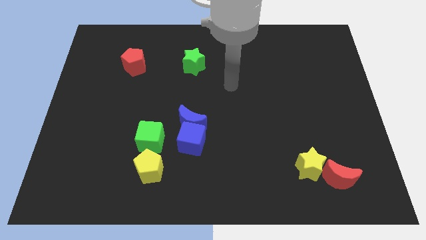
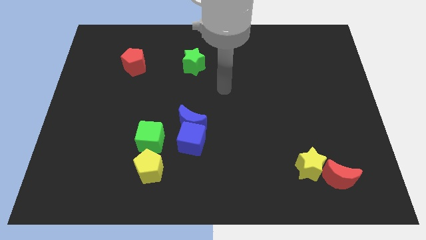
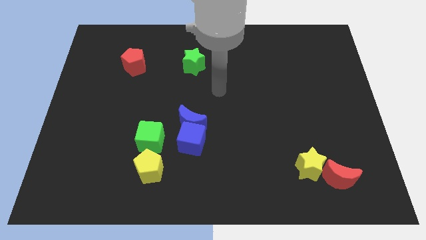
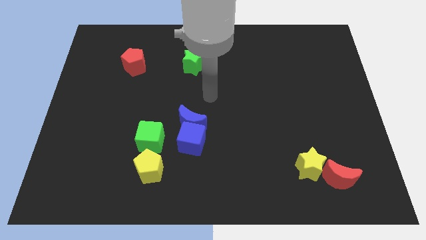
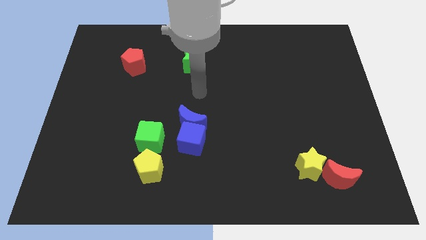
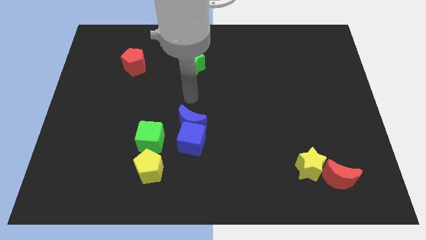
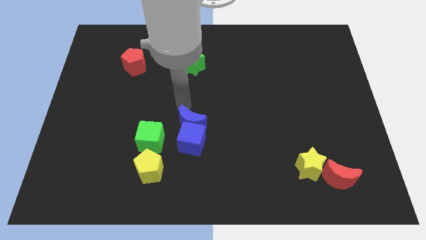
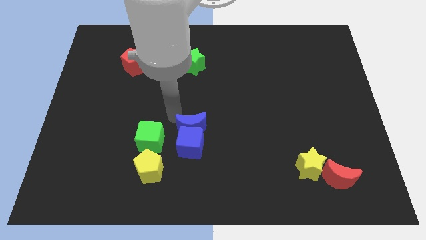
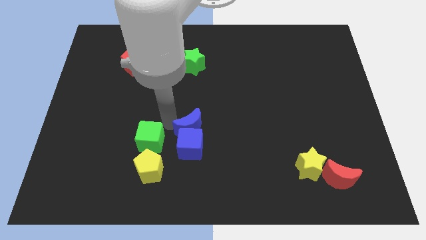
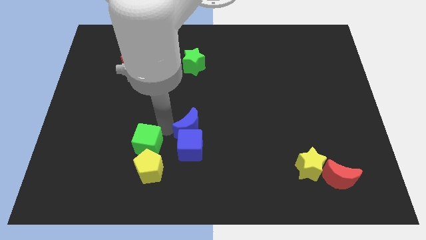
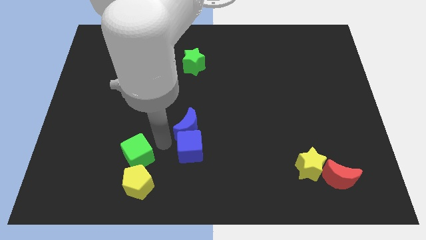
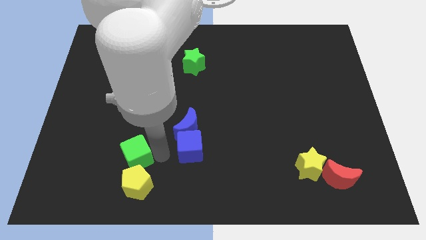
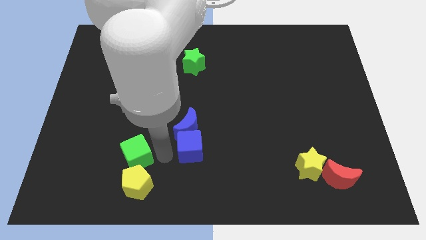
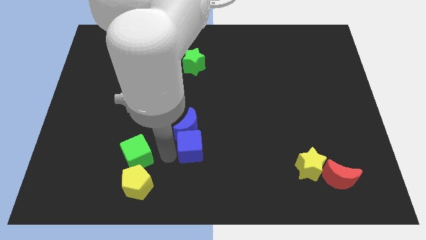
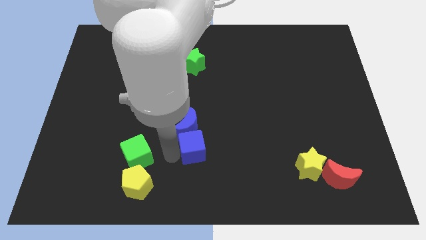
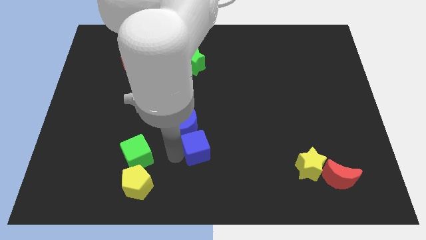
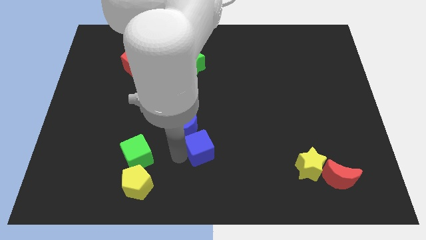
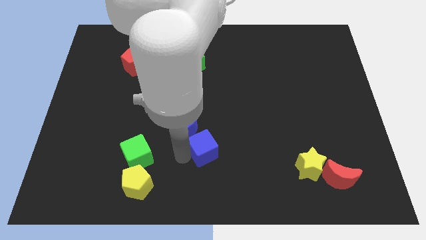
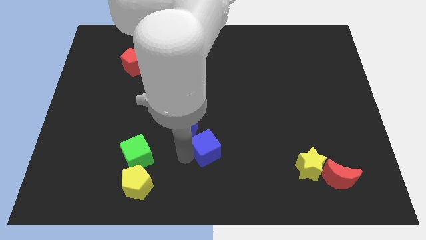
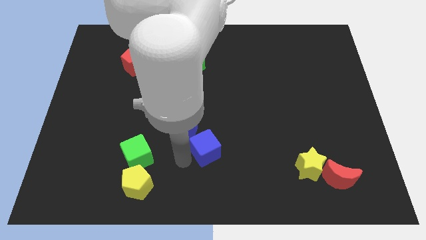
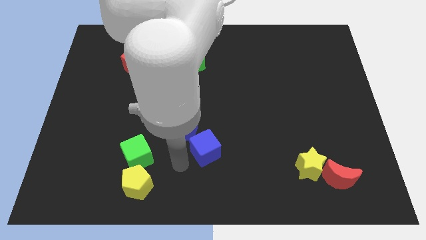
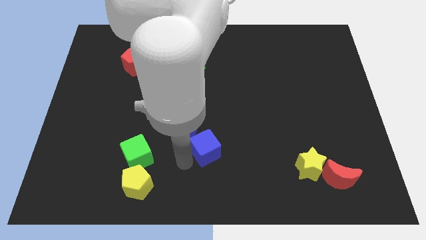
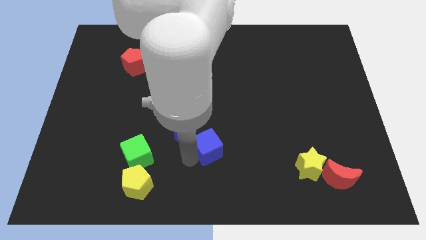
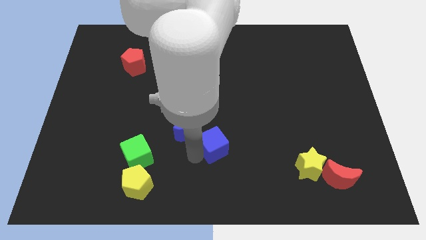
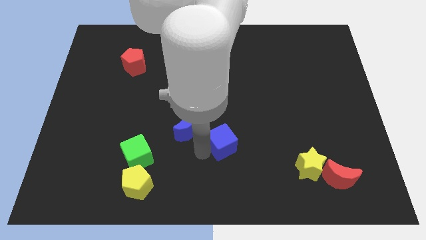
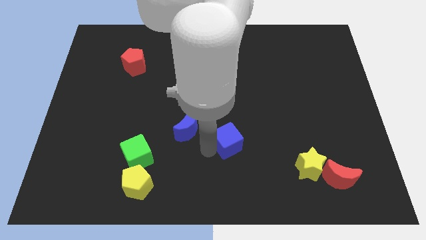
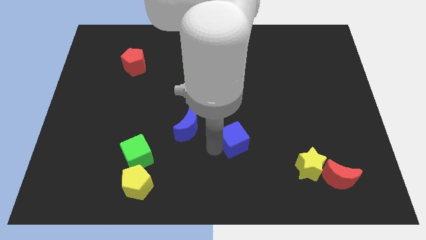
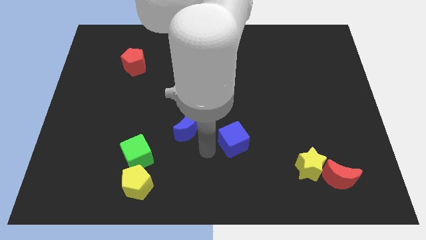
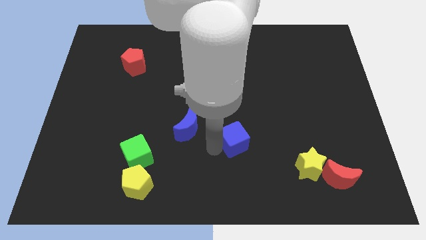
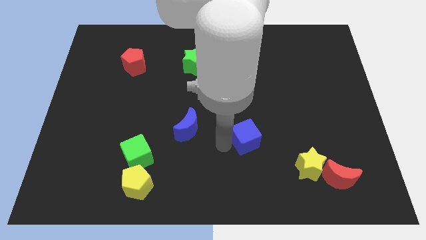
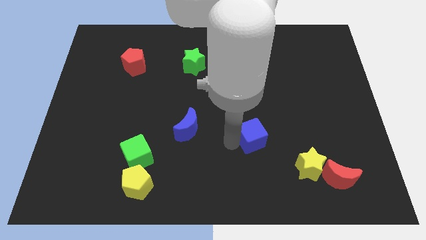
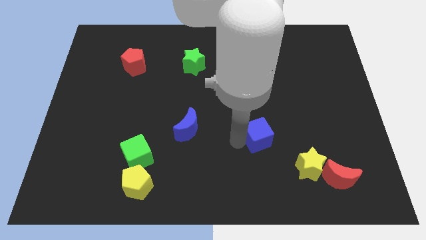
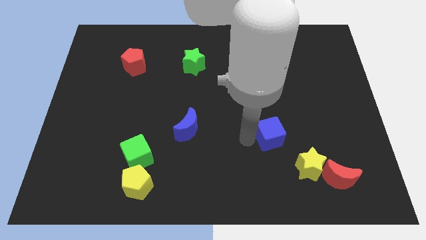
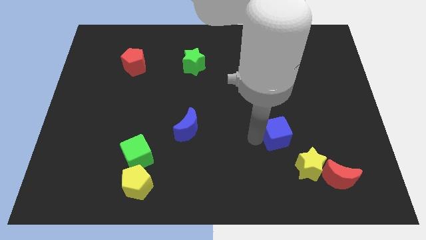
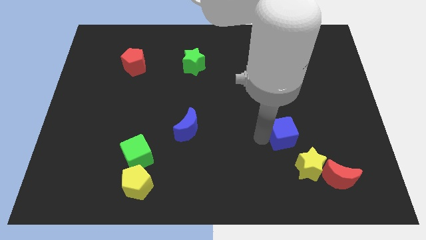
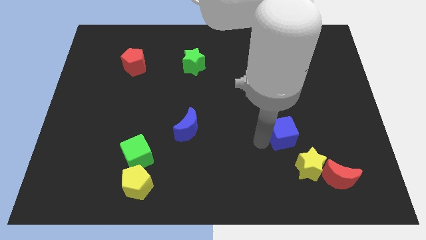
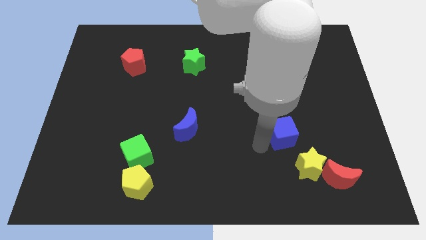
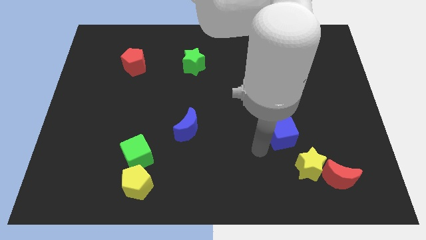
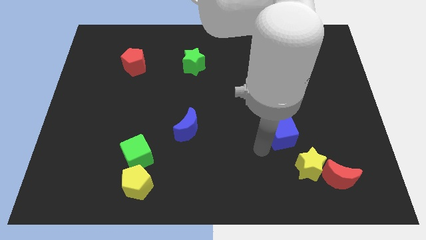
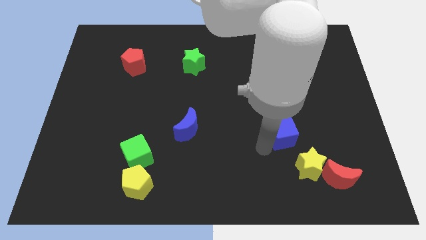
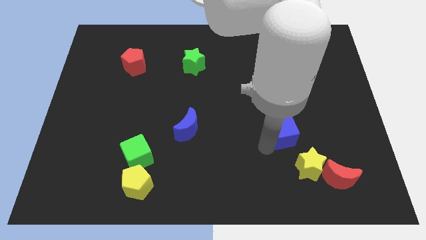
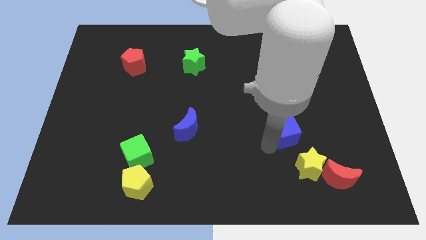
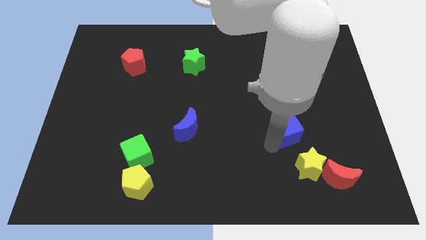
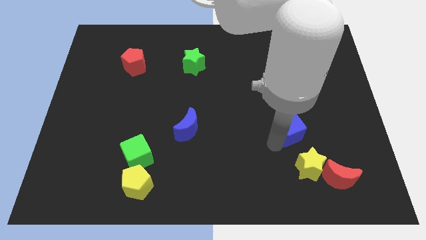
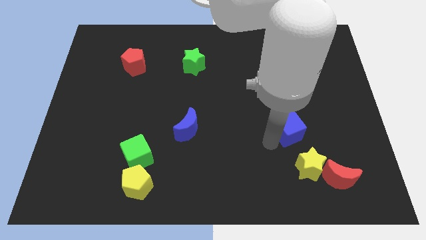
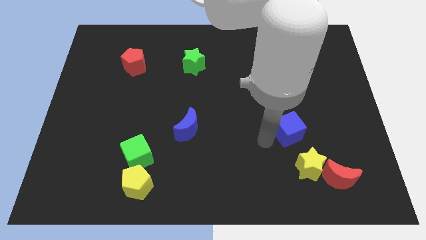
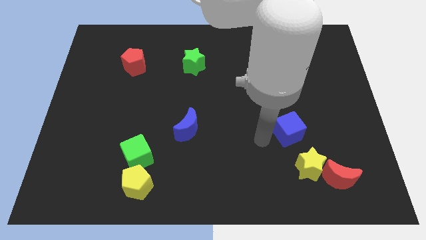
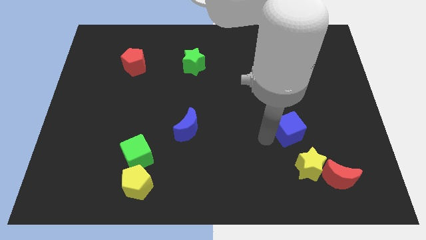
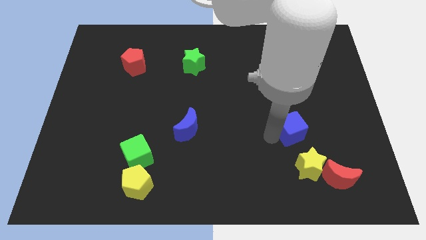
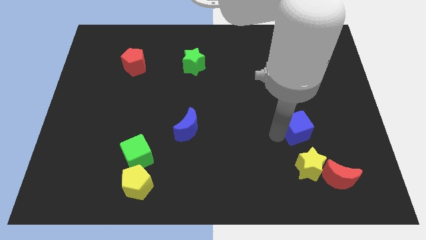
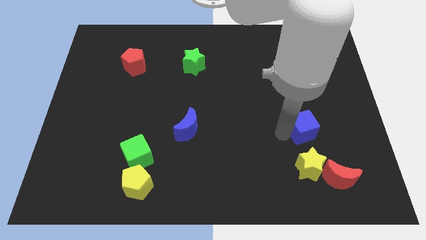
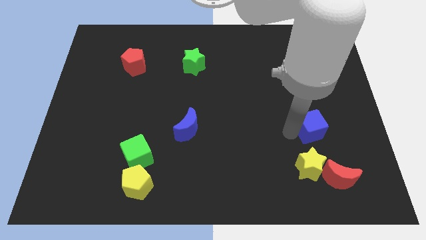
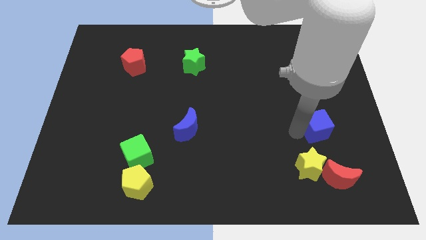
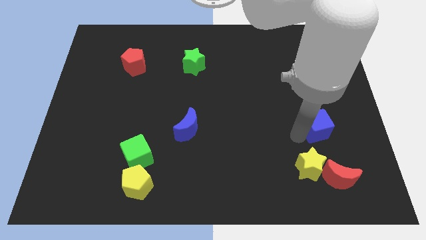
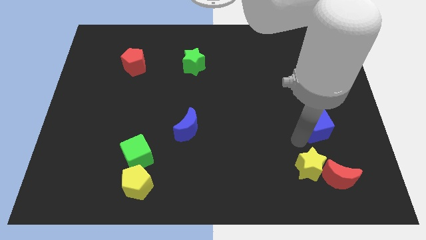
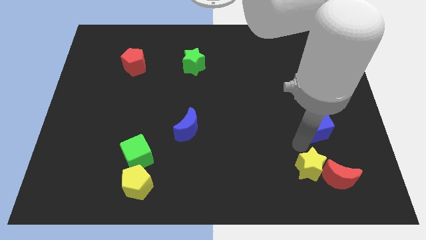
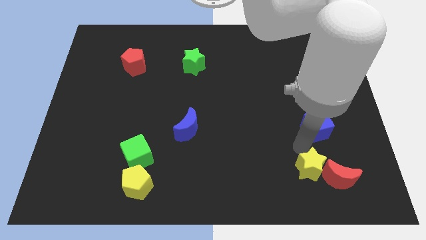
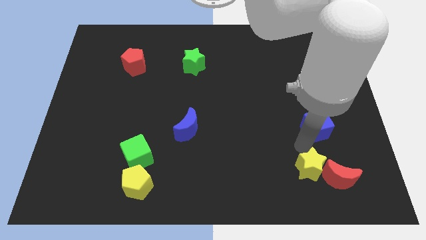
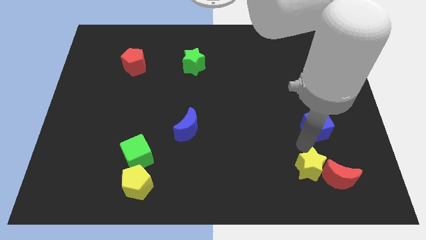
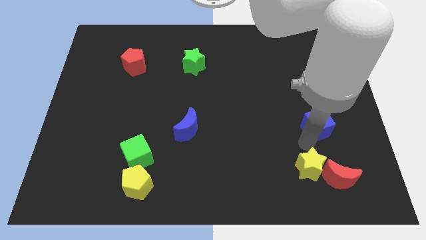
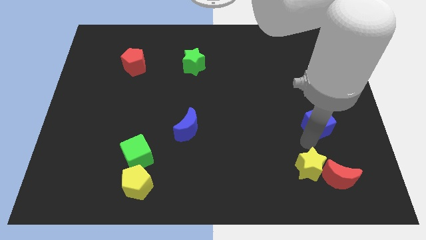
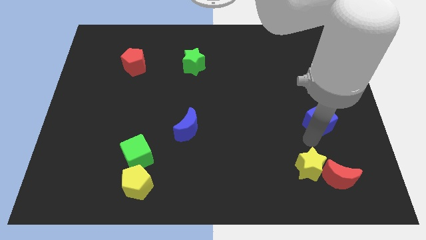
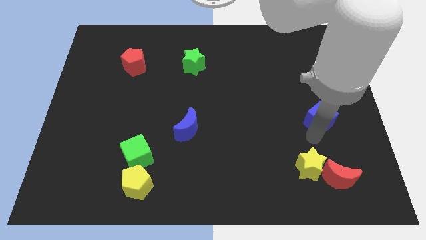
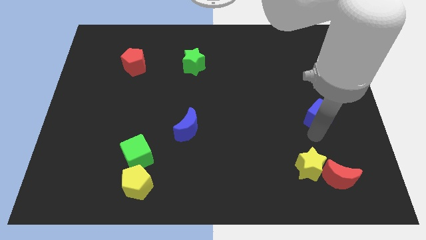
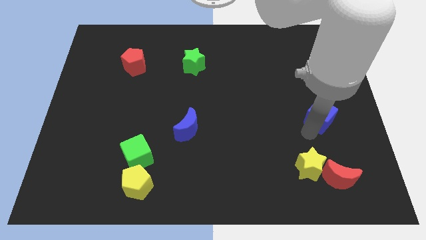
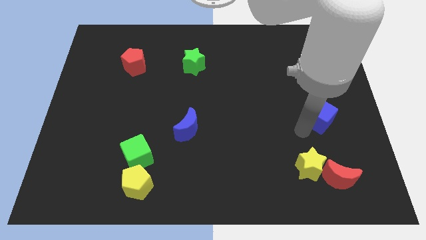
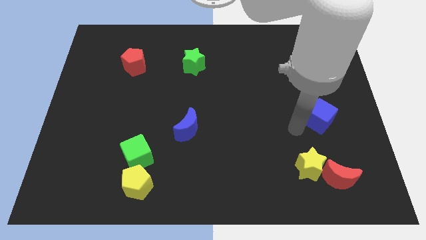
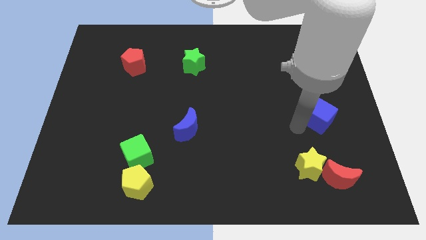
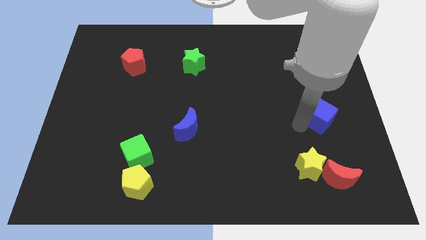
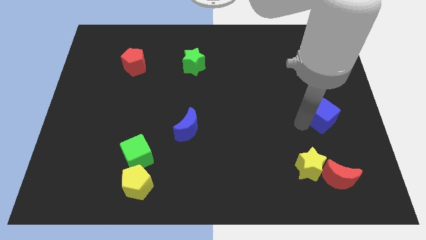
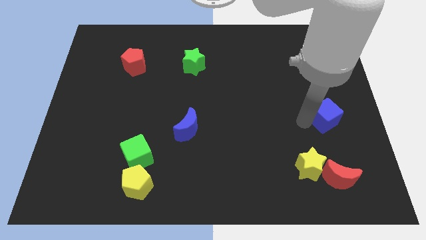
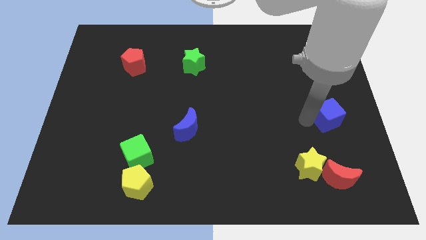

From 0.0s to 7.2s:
move the blue cube to the right side of the board
